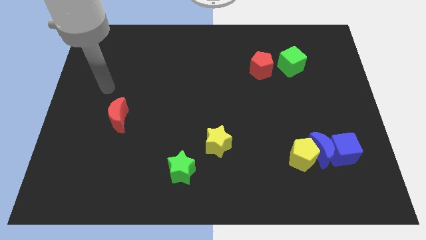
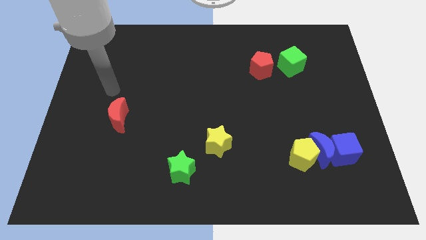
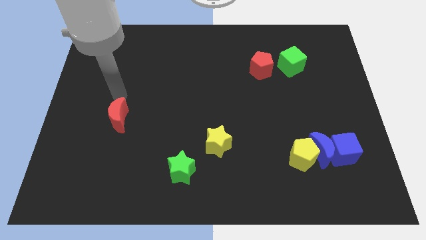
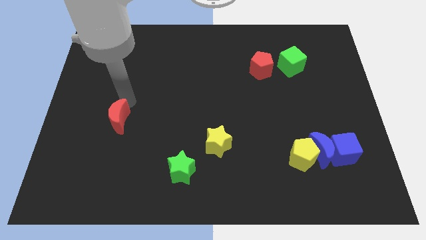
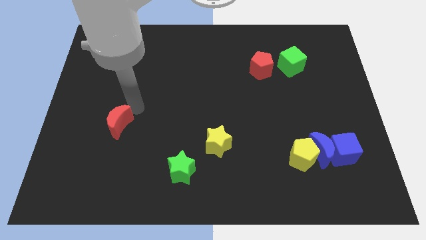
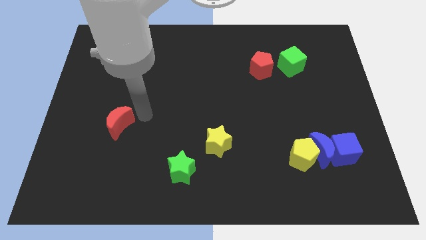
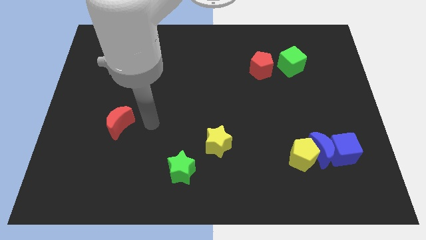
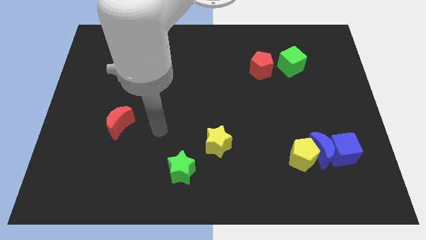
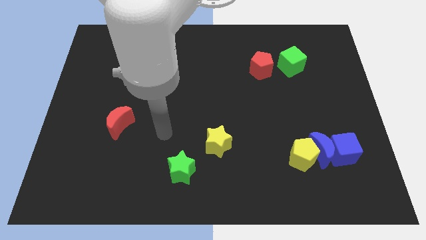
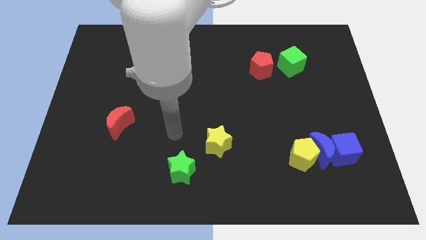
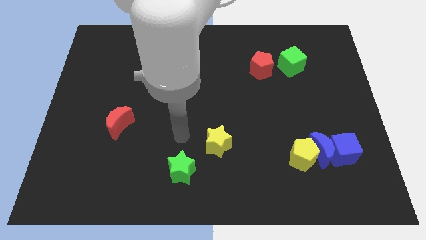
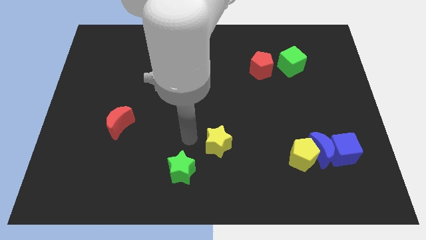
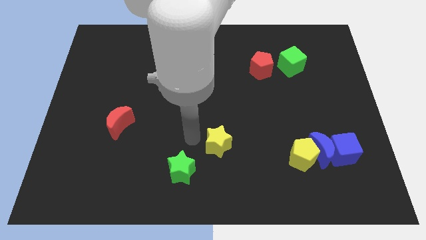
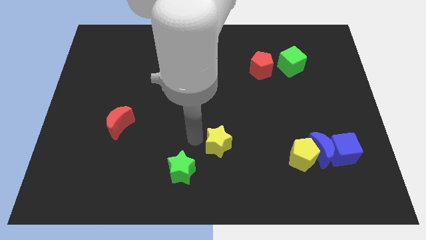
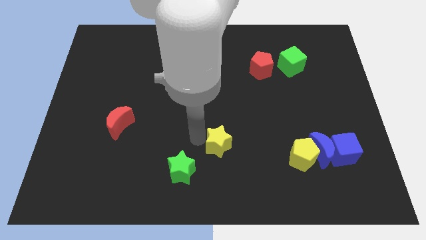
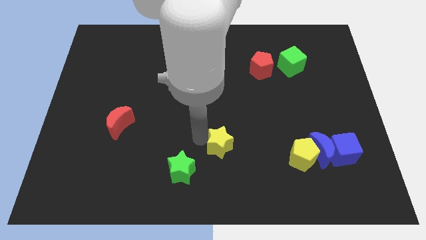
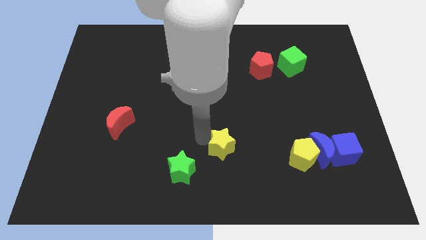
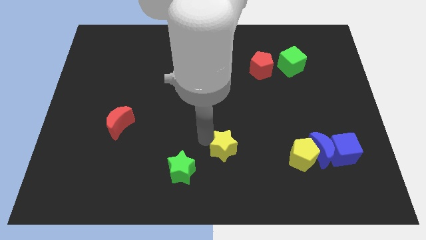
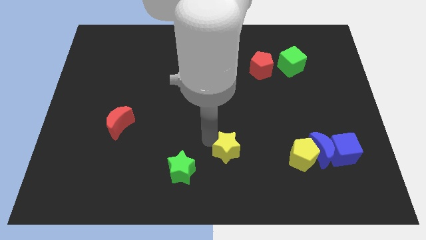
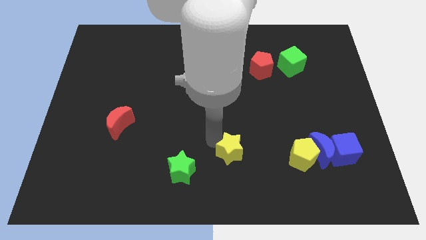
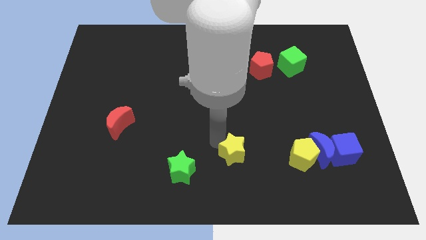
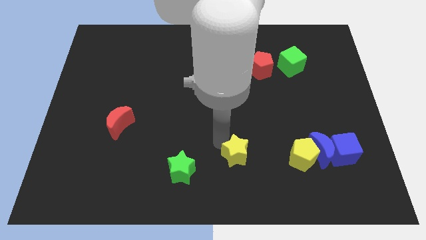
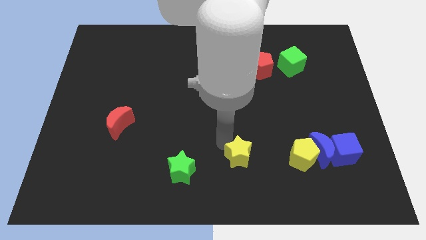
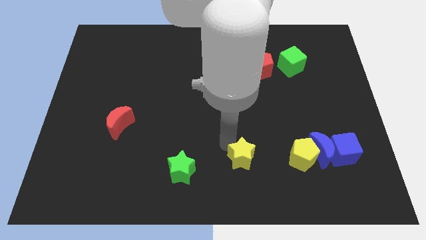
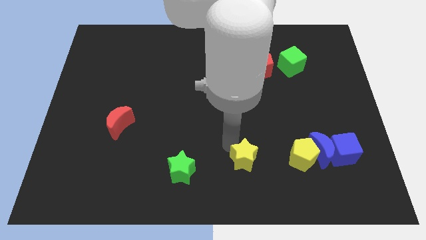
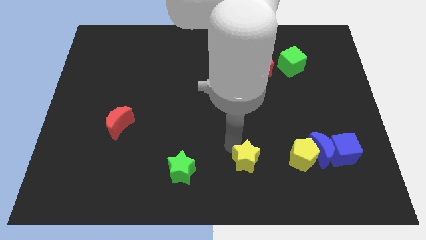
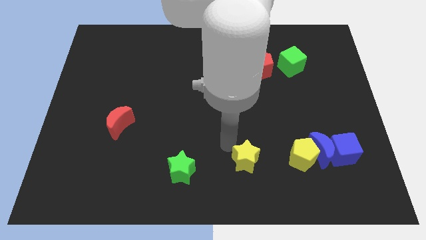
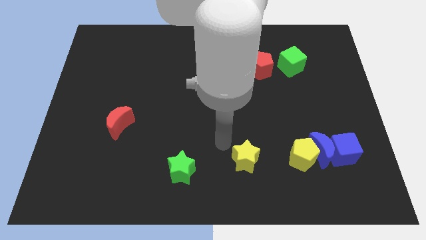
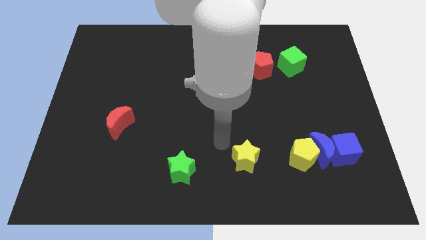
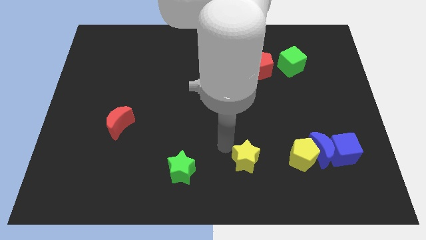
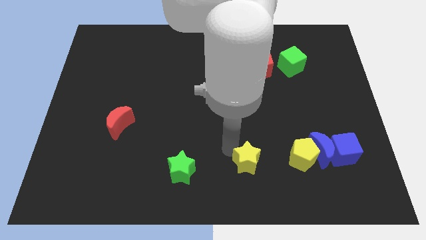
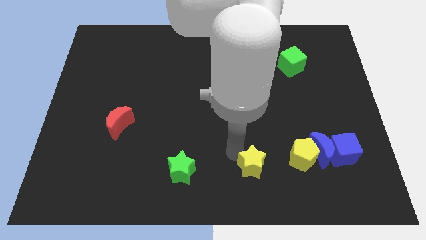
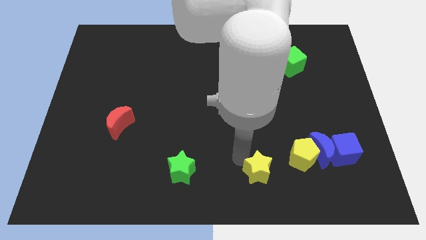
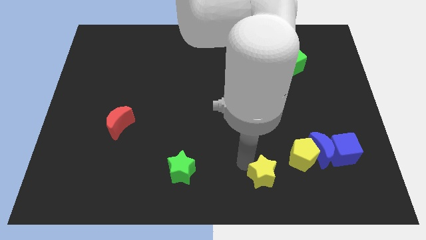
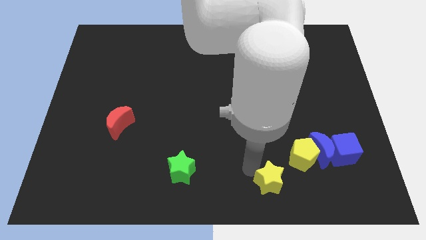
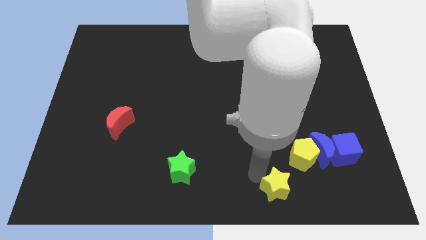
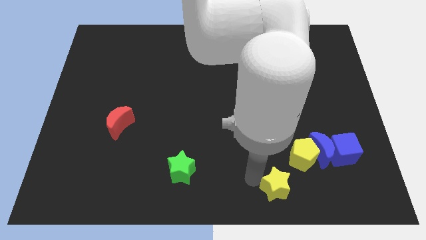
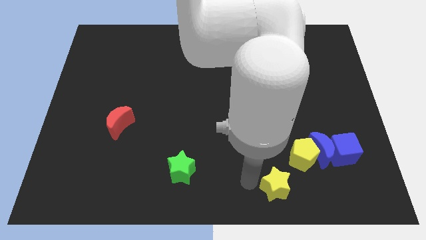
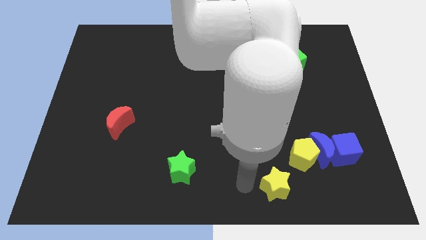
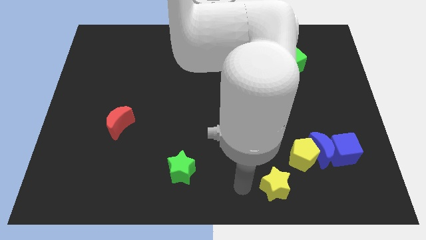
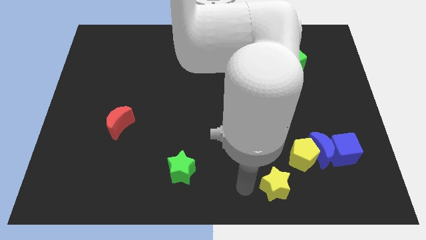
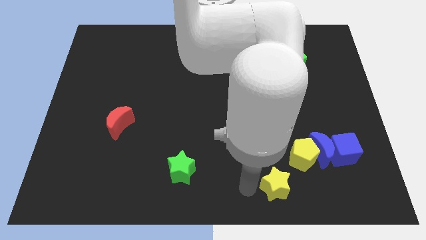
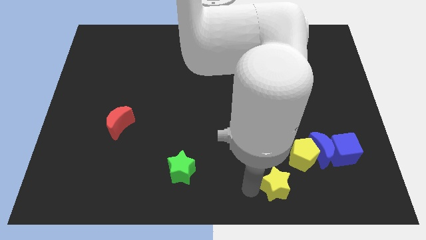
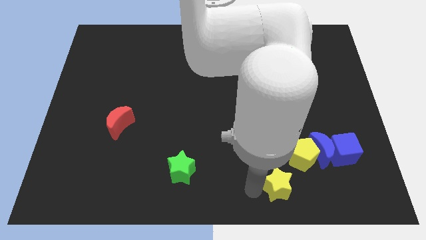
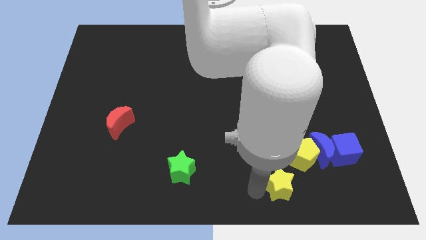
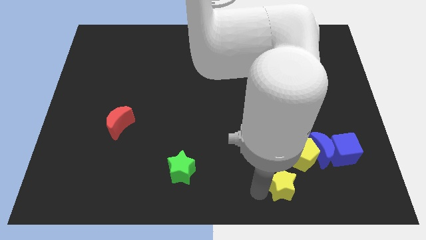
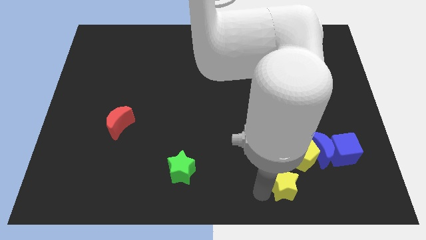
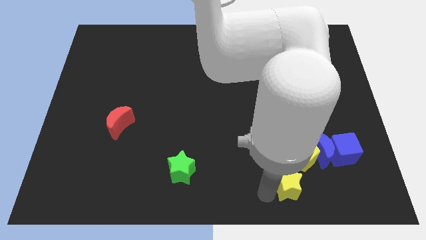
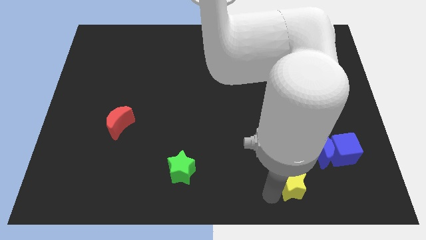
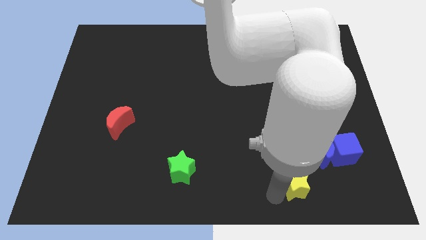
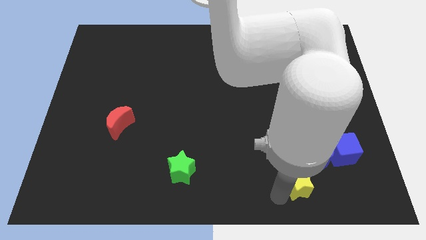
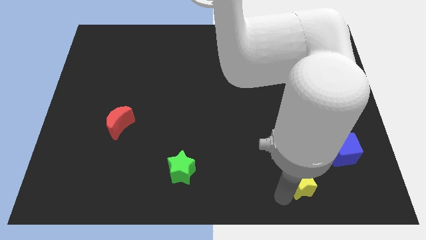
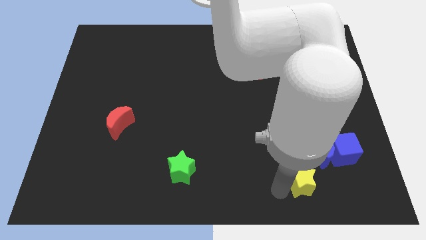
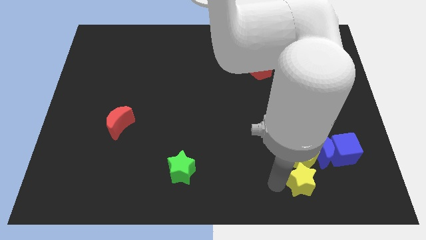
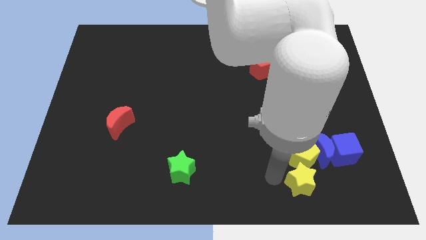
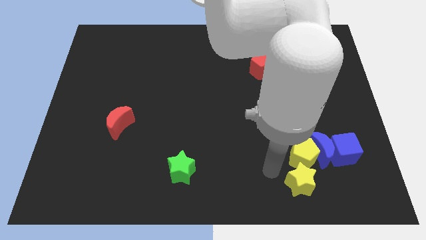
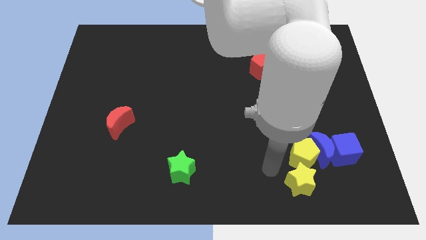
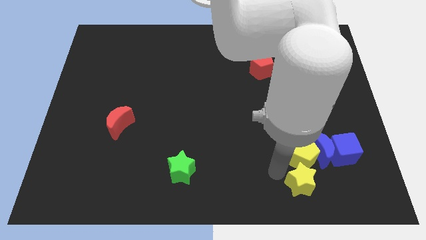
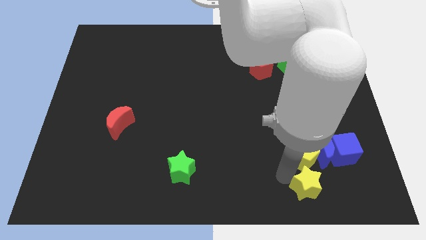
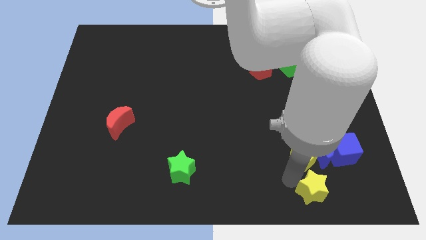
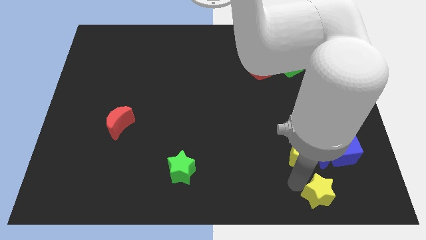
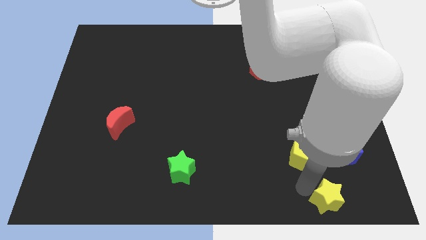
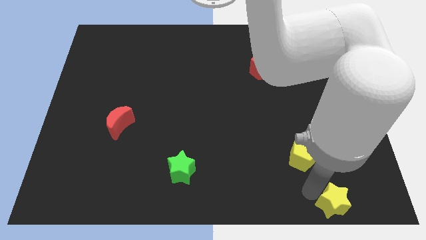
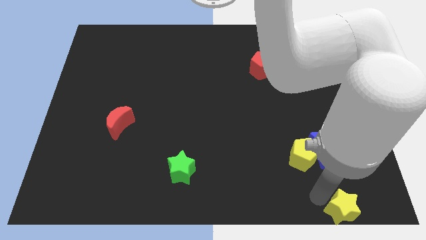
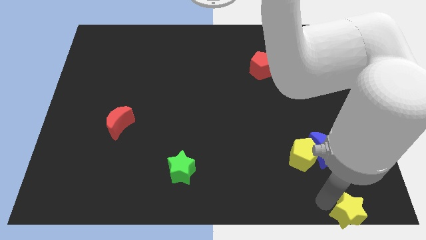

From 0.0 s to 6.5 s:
push the yellow star to the bottom right corner
